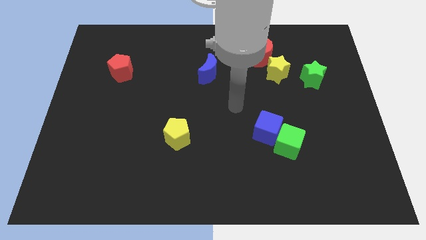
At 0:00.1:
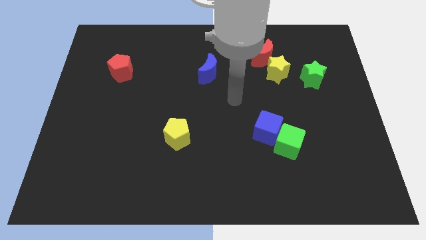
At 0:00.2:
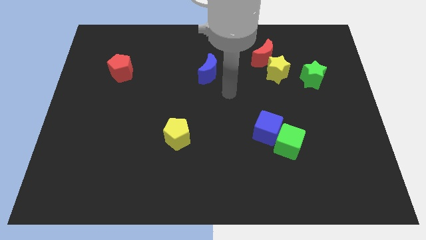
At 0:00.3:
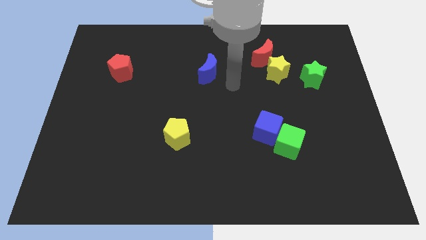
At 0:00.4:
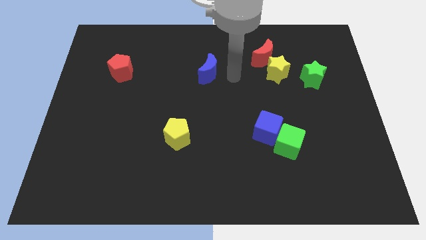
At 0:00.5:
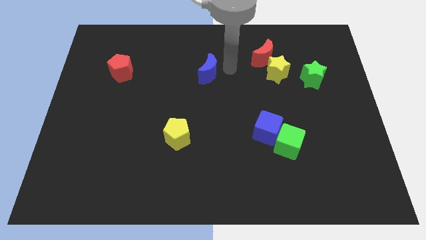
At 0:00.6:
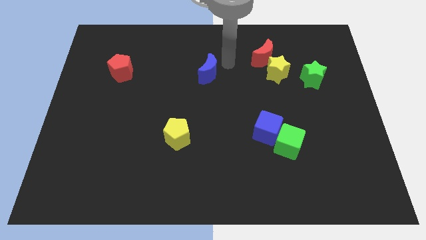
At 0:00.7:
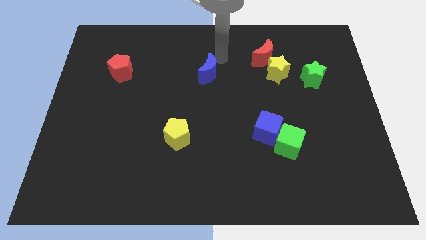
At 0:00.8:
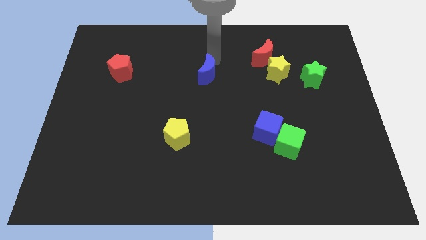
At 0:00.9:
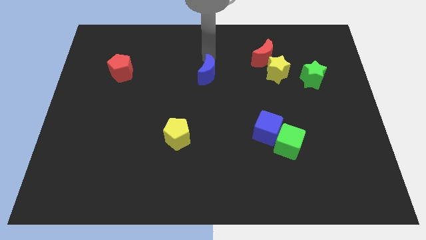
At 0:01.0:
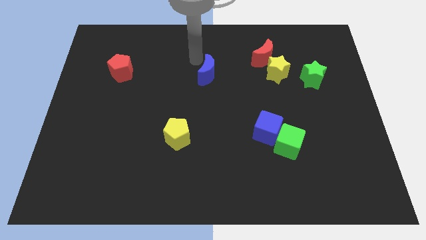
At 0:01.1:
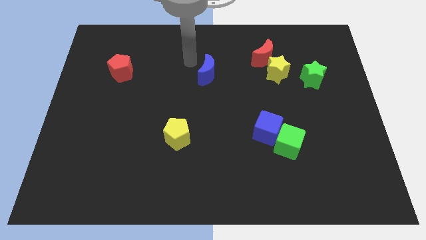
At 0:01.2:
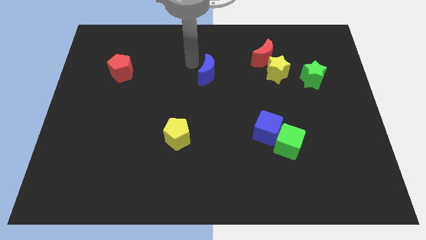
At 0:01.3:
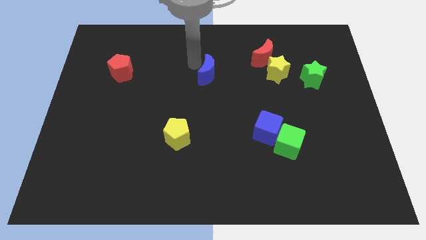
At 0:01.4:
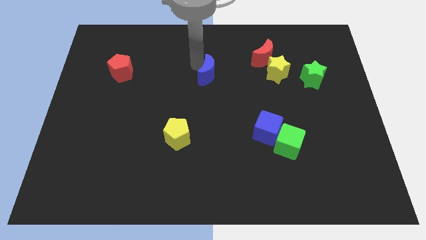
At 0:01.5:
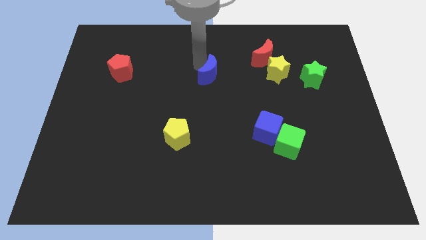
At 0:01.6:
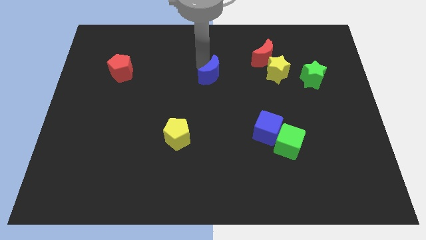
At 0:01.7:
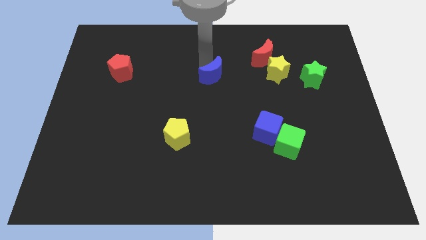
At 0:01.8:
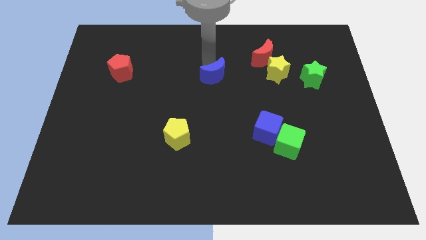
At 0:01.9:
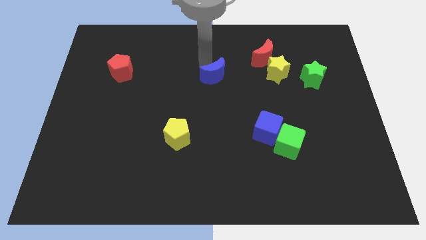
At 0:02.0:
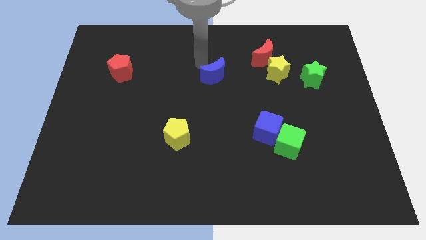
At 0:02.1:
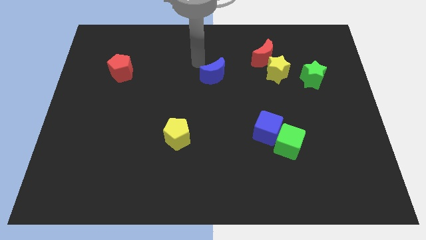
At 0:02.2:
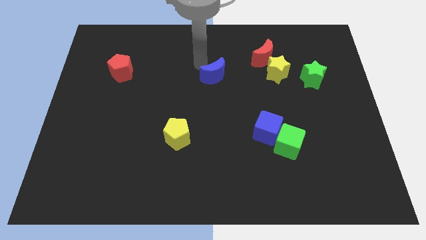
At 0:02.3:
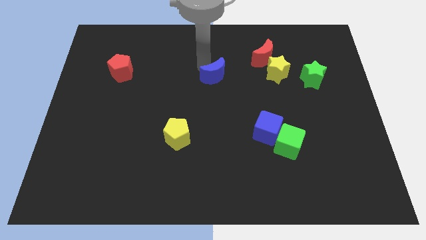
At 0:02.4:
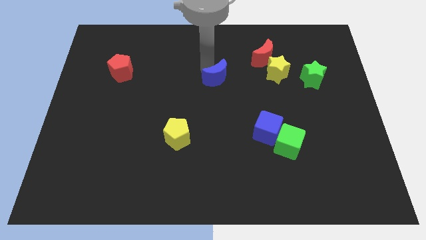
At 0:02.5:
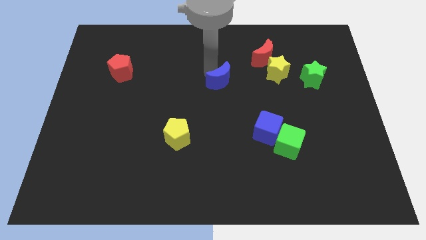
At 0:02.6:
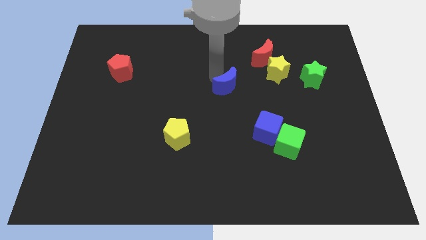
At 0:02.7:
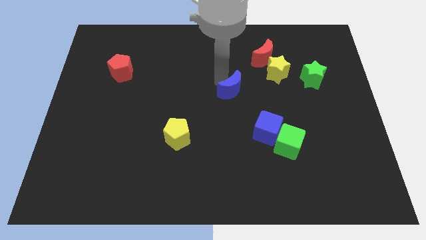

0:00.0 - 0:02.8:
move the blue moon a little bit downwards and right

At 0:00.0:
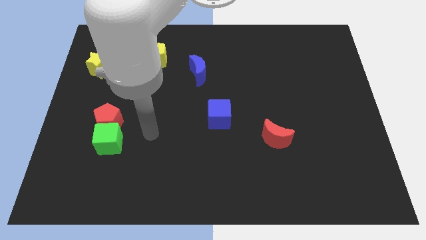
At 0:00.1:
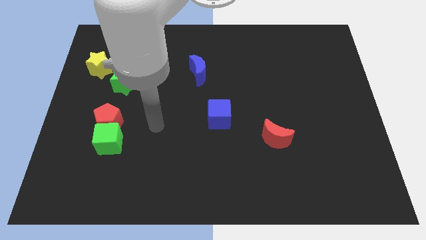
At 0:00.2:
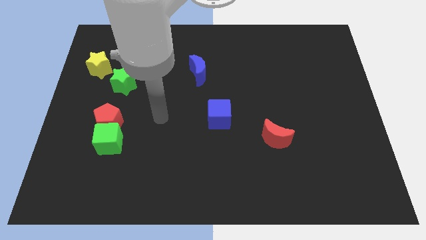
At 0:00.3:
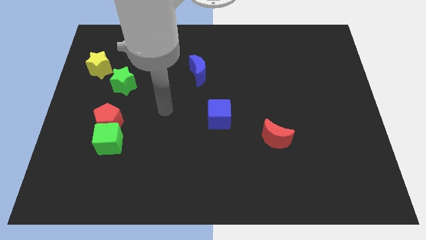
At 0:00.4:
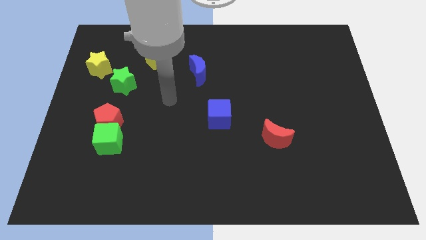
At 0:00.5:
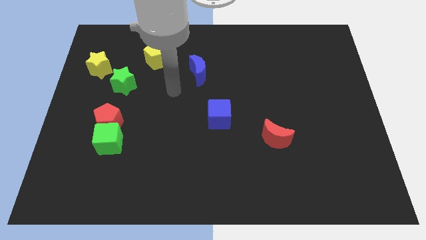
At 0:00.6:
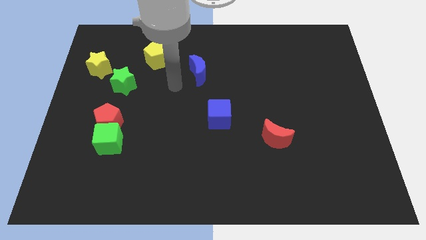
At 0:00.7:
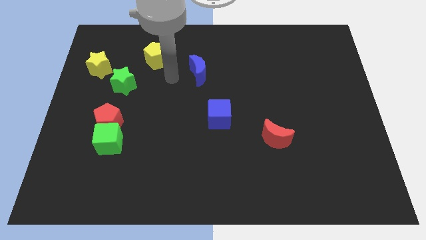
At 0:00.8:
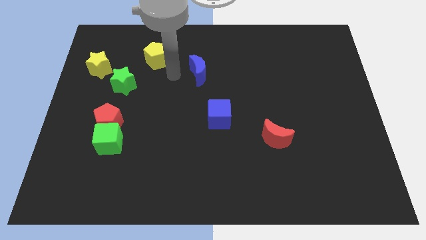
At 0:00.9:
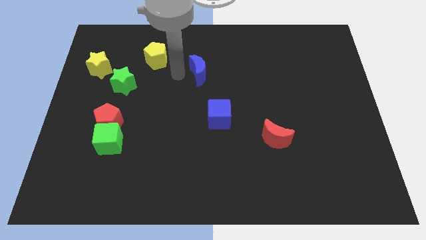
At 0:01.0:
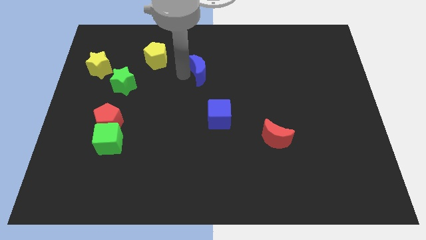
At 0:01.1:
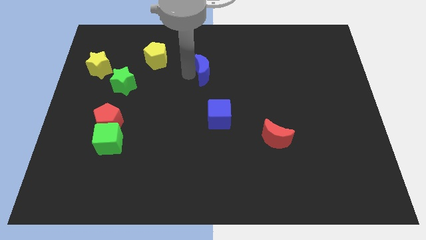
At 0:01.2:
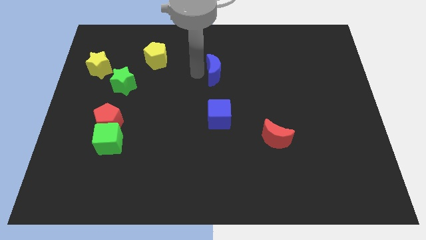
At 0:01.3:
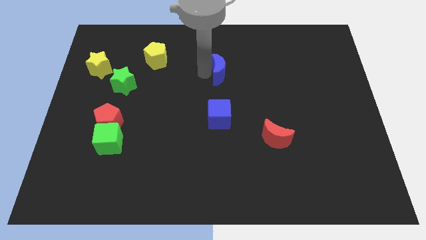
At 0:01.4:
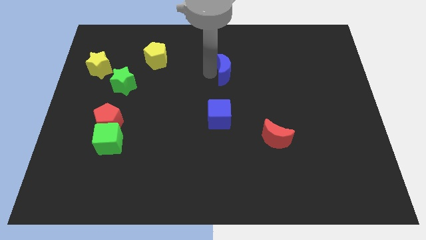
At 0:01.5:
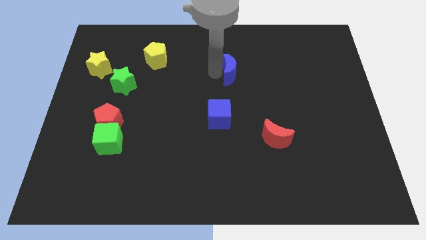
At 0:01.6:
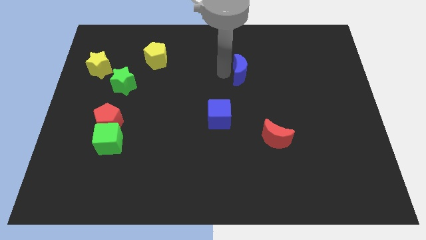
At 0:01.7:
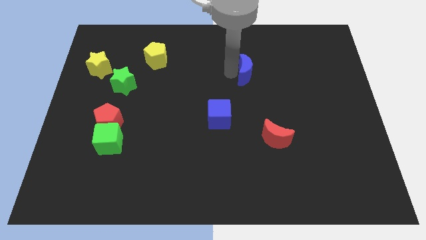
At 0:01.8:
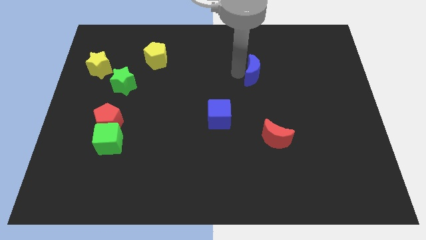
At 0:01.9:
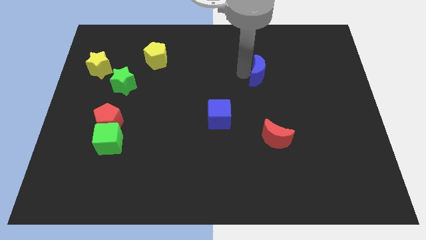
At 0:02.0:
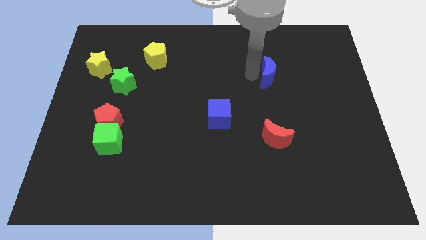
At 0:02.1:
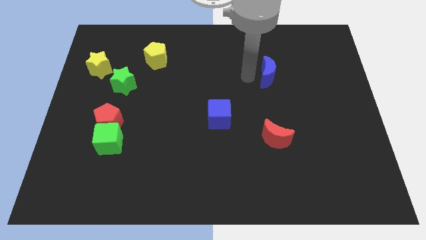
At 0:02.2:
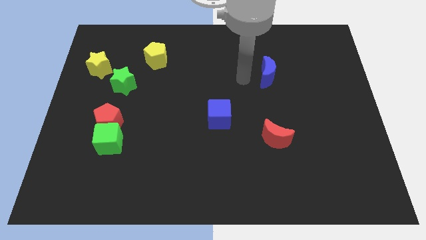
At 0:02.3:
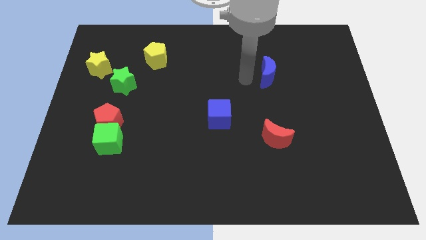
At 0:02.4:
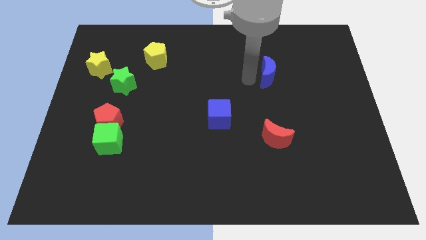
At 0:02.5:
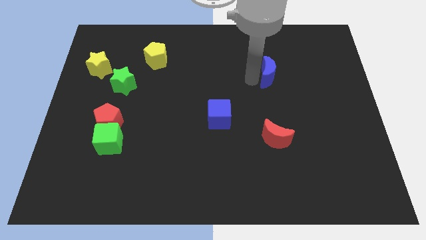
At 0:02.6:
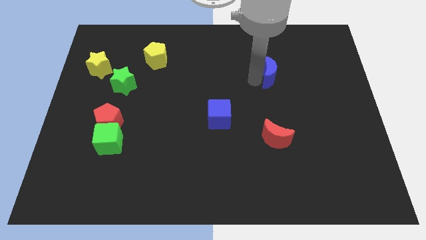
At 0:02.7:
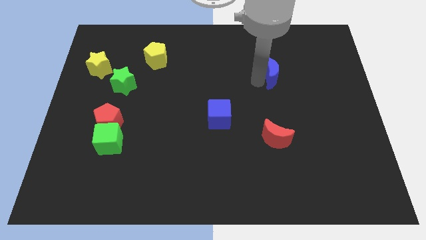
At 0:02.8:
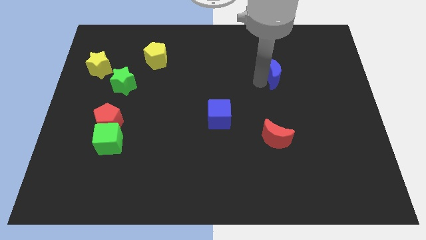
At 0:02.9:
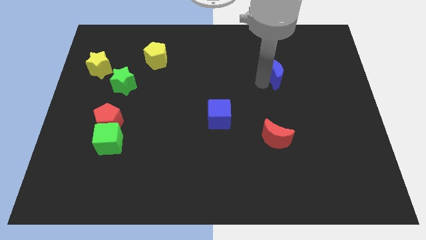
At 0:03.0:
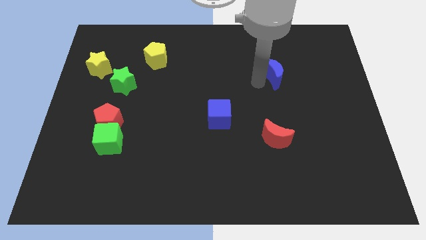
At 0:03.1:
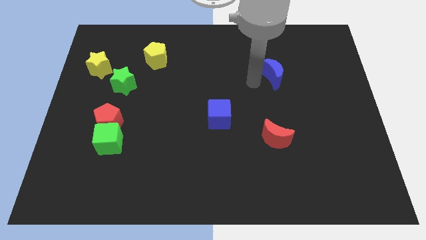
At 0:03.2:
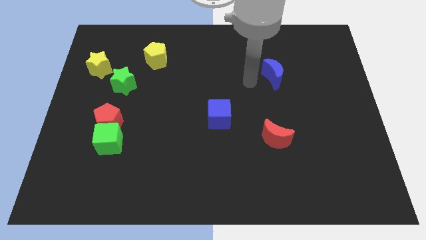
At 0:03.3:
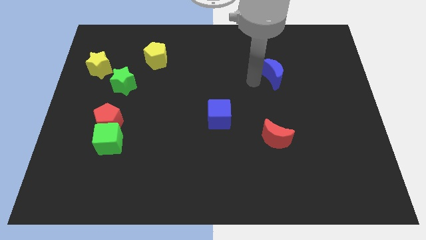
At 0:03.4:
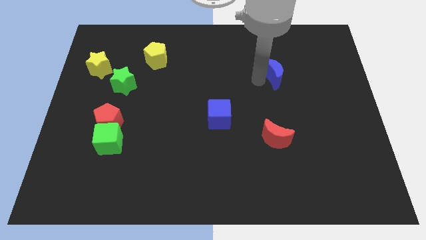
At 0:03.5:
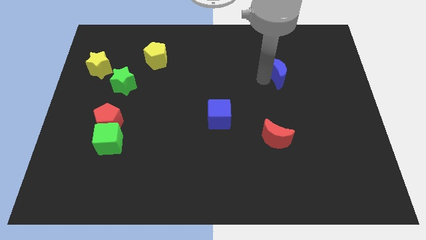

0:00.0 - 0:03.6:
slide the blue moon to the right

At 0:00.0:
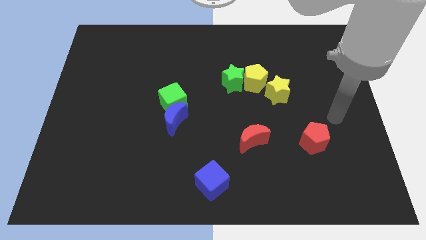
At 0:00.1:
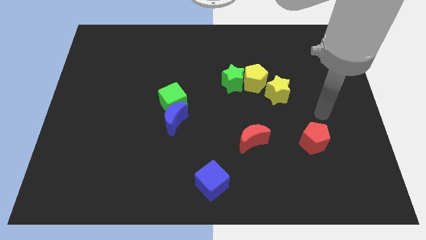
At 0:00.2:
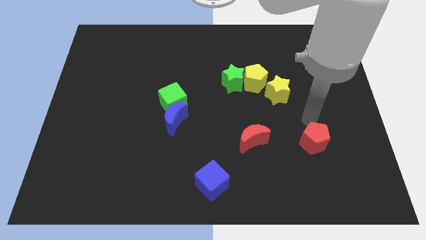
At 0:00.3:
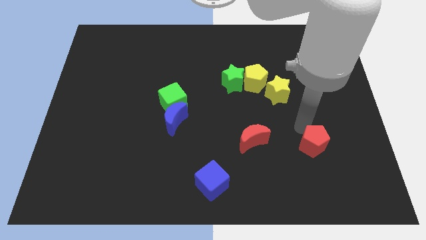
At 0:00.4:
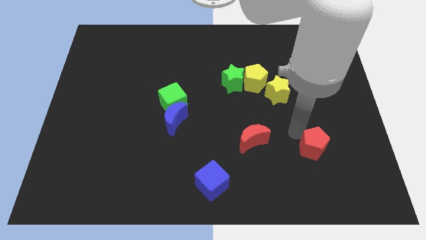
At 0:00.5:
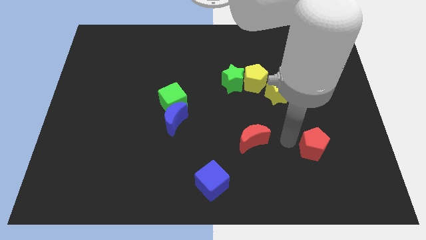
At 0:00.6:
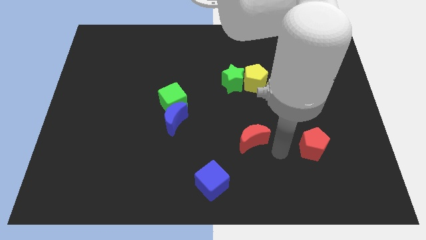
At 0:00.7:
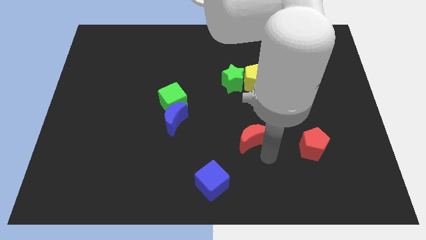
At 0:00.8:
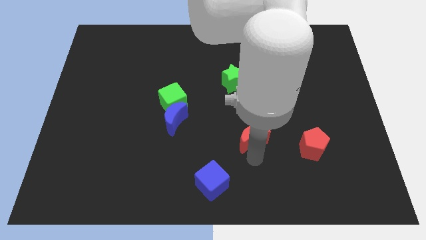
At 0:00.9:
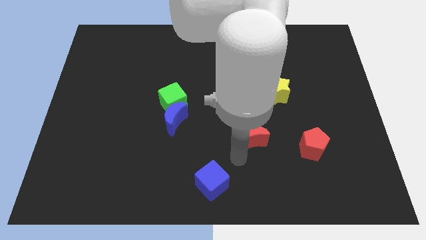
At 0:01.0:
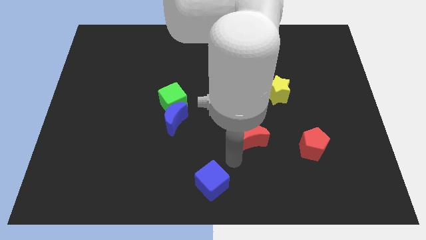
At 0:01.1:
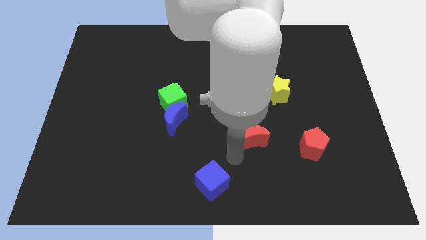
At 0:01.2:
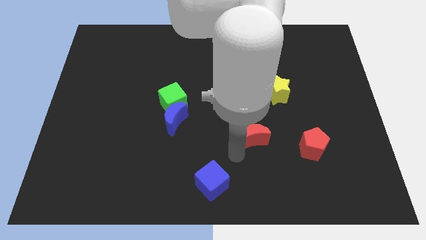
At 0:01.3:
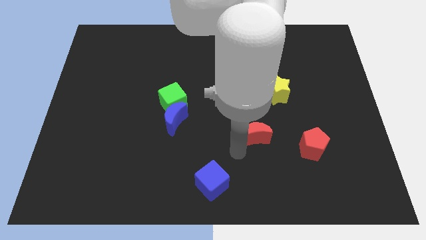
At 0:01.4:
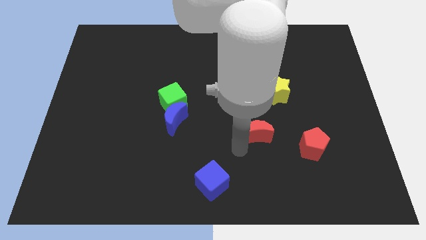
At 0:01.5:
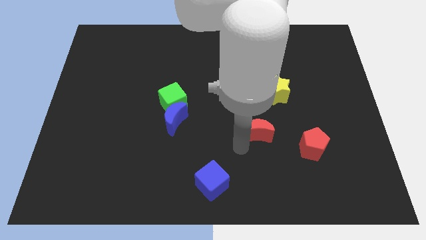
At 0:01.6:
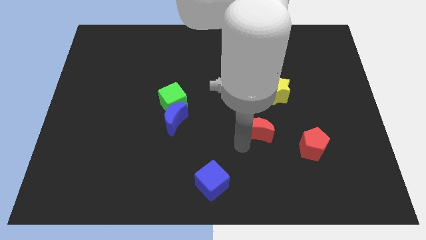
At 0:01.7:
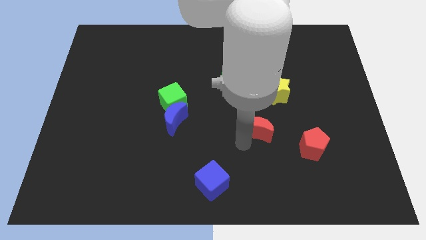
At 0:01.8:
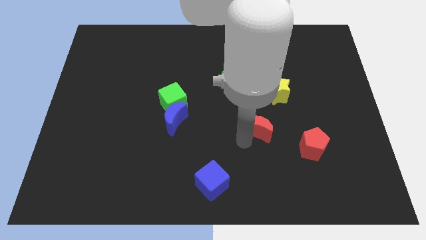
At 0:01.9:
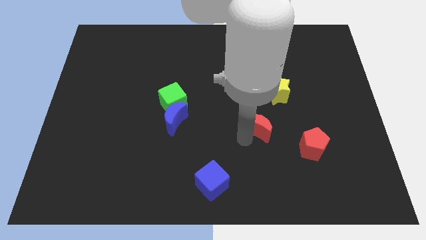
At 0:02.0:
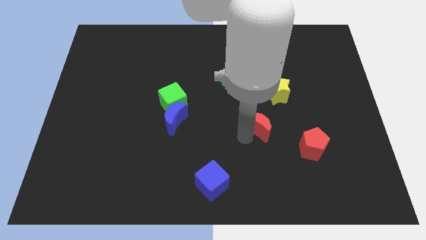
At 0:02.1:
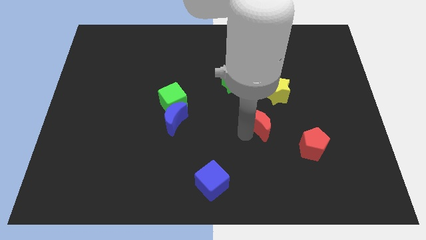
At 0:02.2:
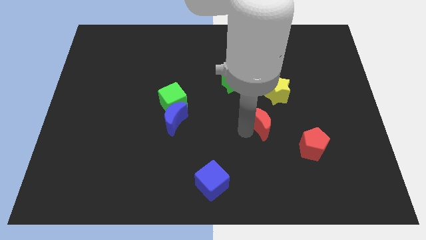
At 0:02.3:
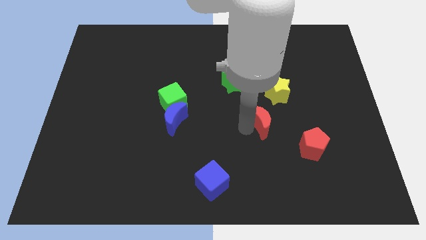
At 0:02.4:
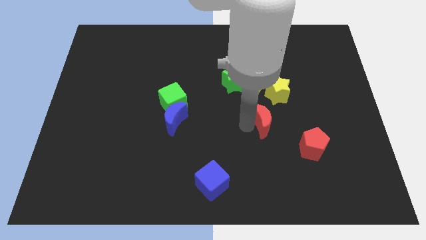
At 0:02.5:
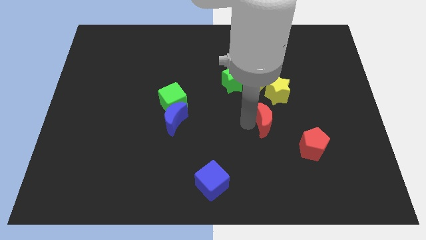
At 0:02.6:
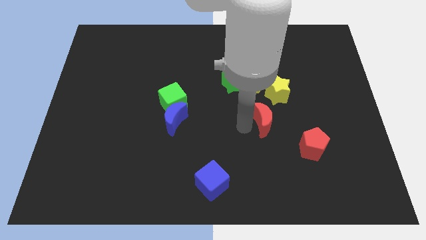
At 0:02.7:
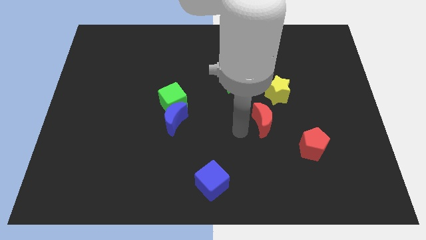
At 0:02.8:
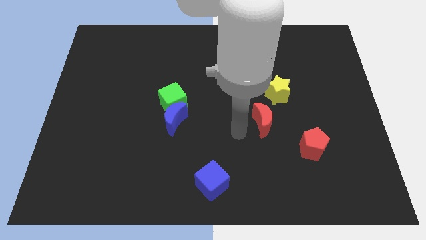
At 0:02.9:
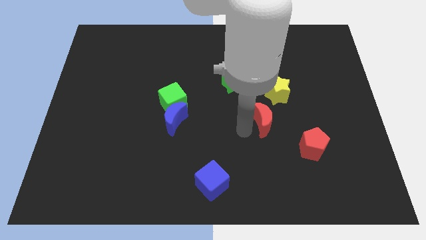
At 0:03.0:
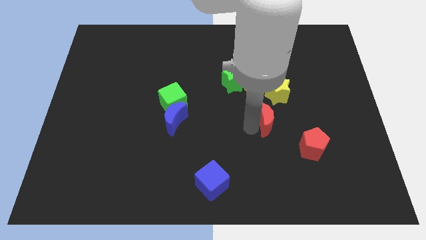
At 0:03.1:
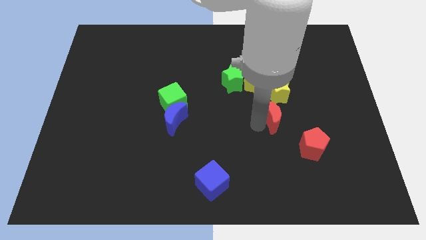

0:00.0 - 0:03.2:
slightly slide the red moon upwards and right diagonally
